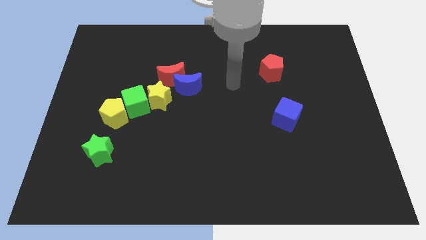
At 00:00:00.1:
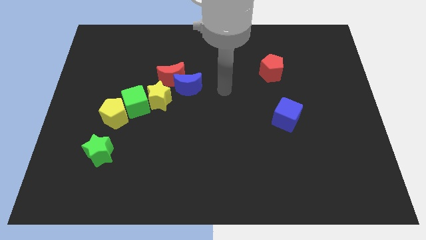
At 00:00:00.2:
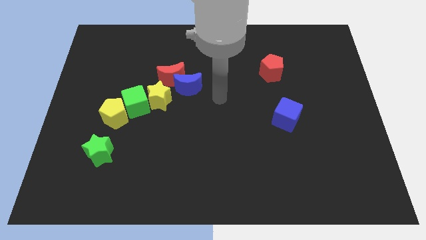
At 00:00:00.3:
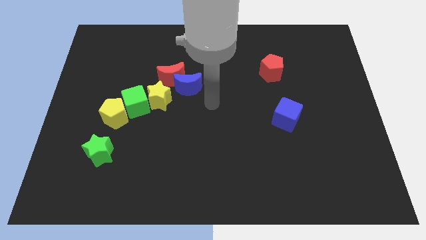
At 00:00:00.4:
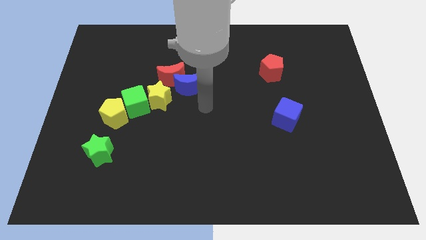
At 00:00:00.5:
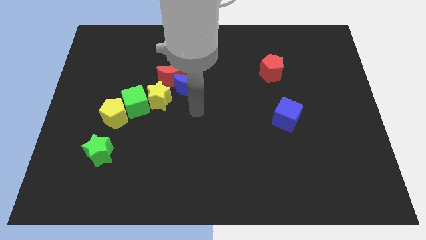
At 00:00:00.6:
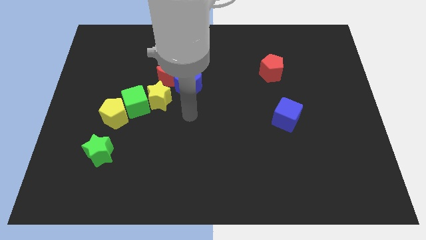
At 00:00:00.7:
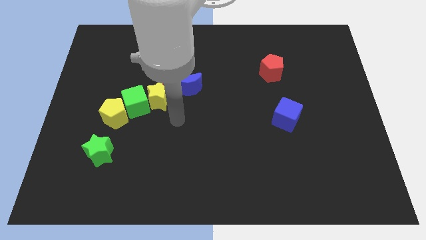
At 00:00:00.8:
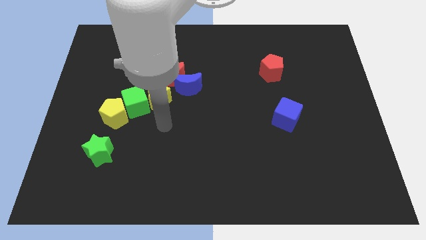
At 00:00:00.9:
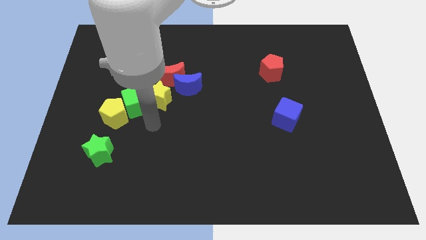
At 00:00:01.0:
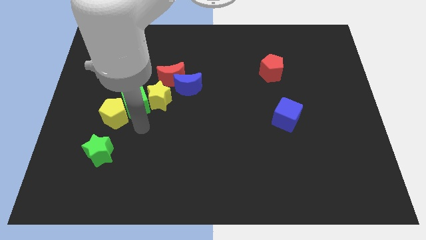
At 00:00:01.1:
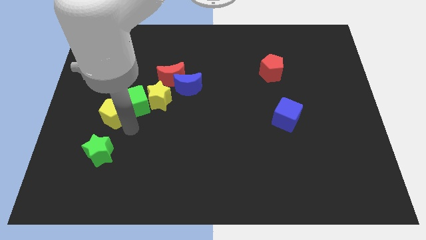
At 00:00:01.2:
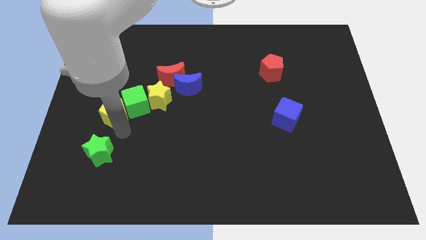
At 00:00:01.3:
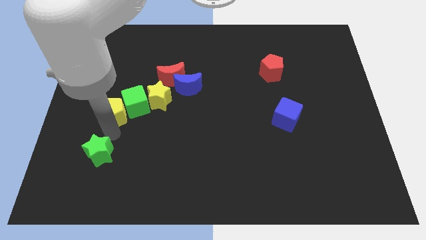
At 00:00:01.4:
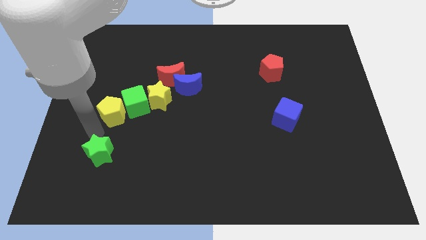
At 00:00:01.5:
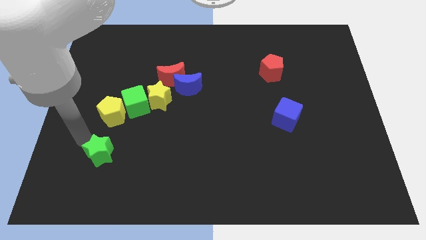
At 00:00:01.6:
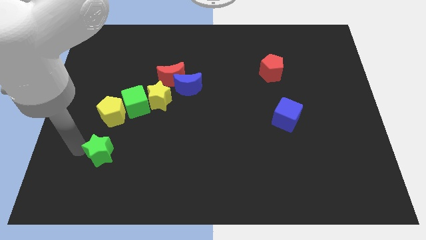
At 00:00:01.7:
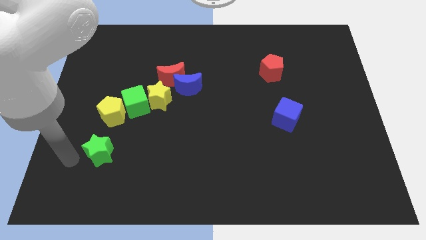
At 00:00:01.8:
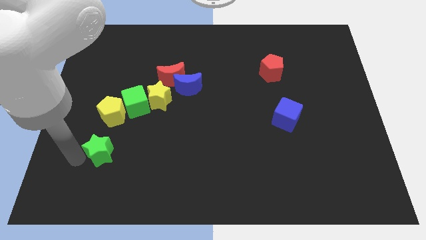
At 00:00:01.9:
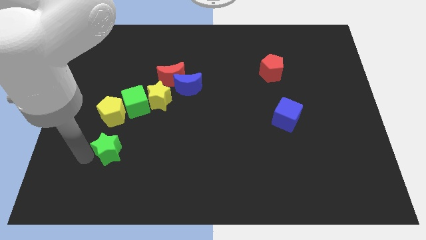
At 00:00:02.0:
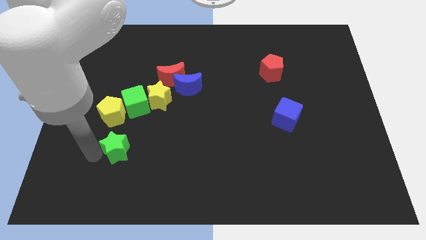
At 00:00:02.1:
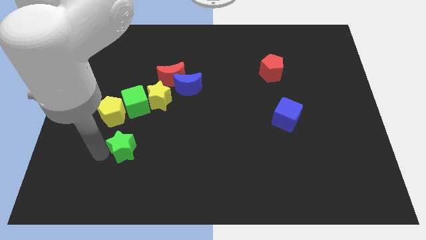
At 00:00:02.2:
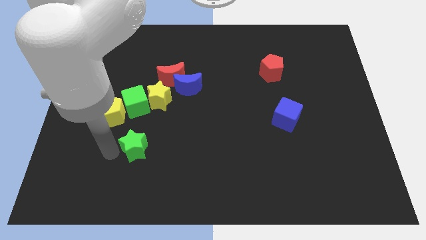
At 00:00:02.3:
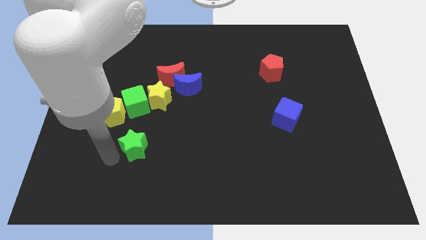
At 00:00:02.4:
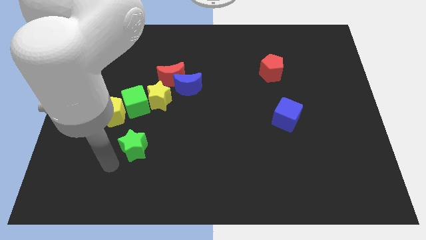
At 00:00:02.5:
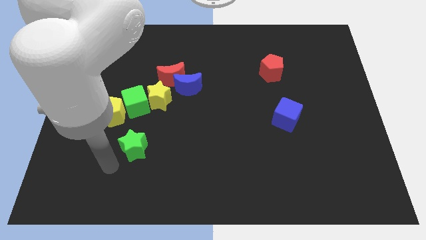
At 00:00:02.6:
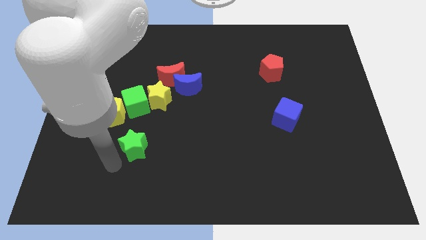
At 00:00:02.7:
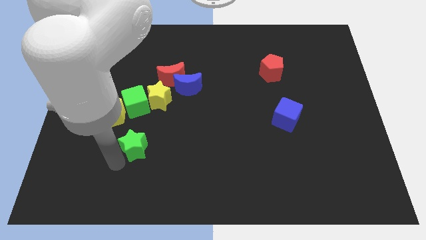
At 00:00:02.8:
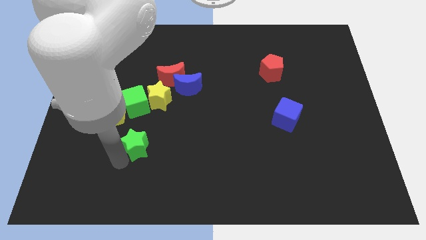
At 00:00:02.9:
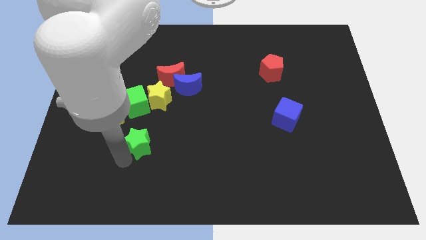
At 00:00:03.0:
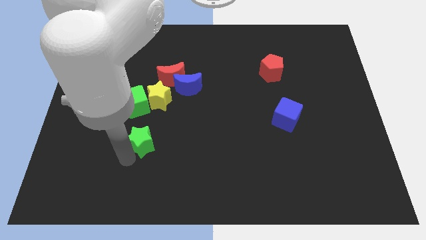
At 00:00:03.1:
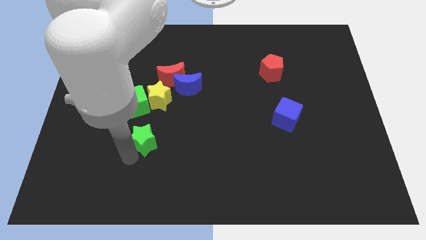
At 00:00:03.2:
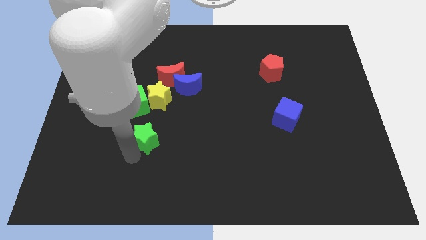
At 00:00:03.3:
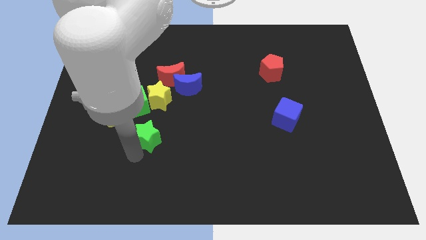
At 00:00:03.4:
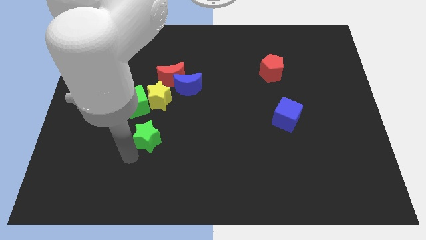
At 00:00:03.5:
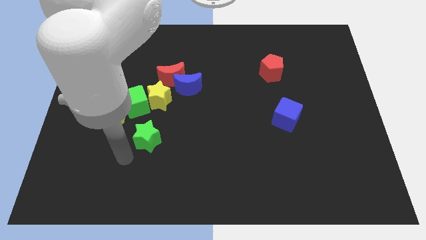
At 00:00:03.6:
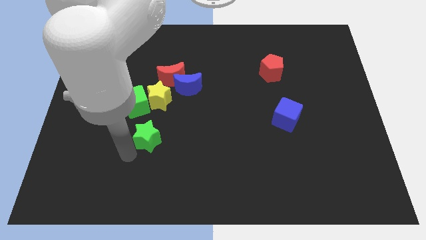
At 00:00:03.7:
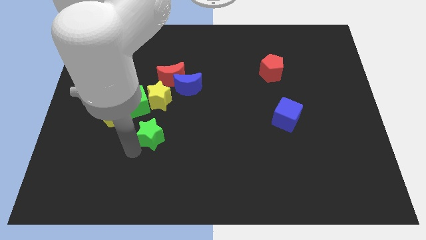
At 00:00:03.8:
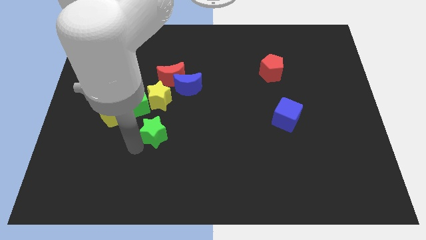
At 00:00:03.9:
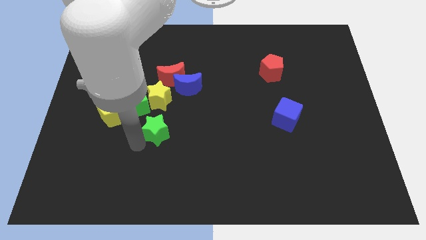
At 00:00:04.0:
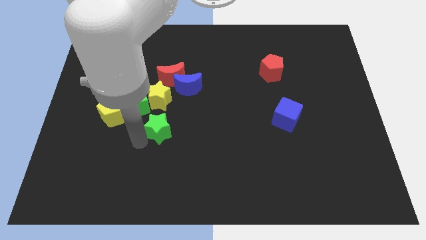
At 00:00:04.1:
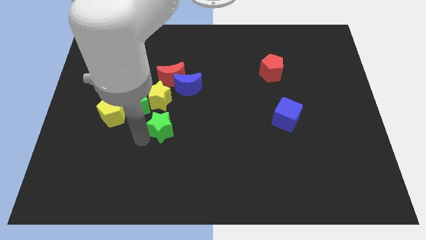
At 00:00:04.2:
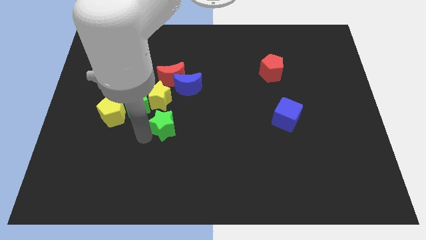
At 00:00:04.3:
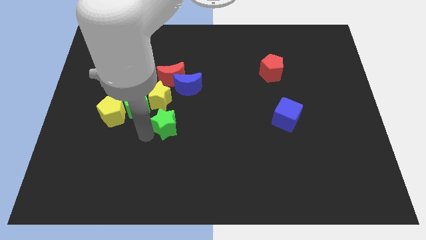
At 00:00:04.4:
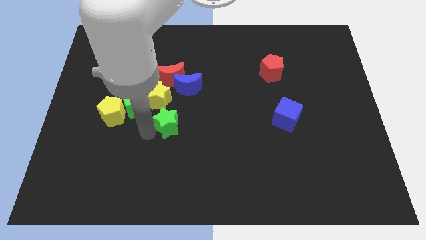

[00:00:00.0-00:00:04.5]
move the green star to the middle

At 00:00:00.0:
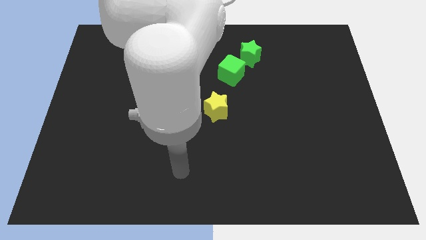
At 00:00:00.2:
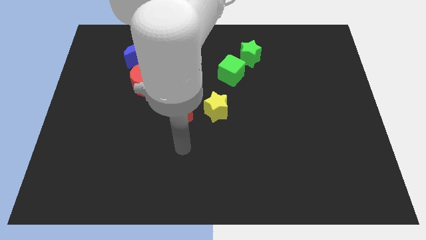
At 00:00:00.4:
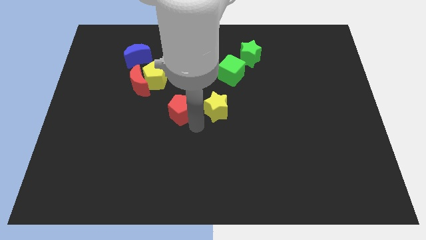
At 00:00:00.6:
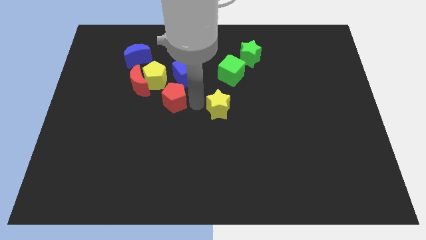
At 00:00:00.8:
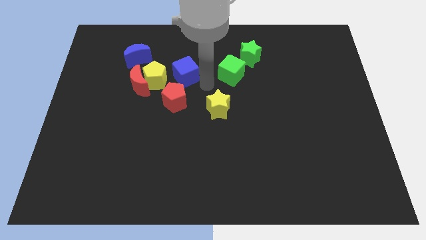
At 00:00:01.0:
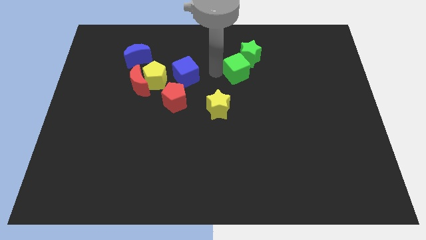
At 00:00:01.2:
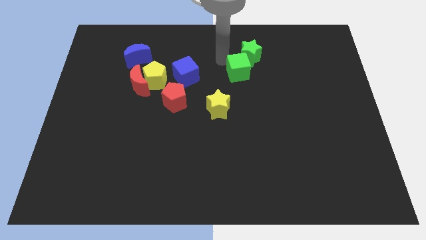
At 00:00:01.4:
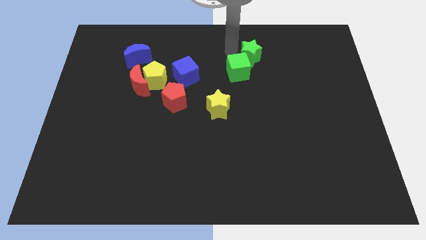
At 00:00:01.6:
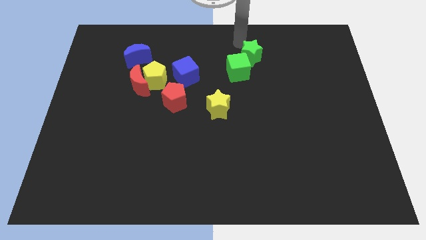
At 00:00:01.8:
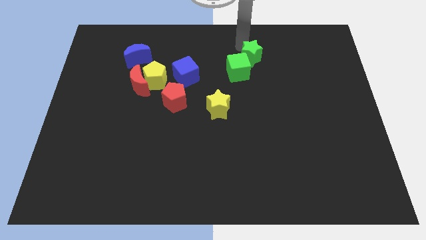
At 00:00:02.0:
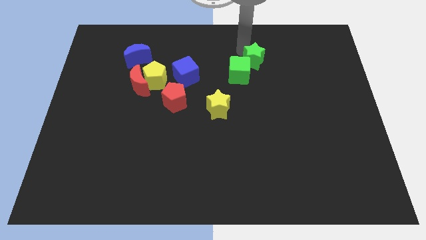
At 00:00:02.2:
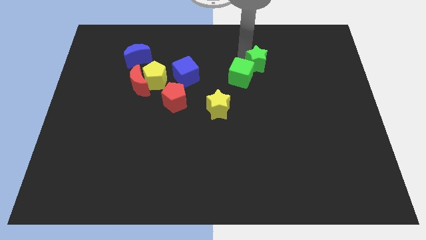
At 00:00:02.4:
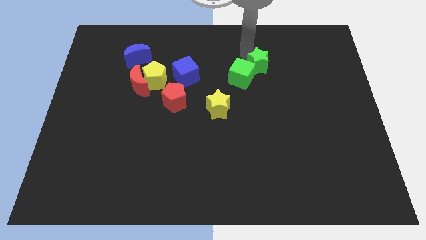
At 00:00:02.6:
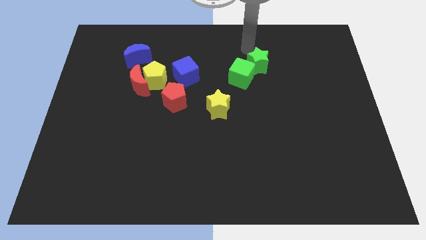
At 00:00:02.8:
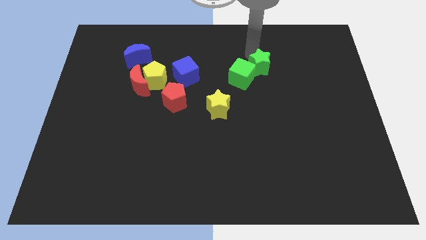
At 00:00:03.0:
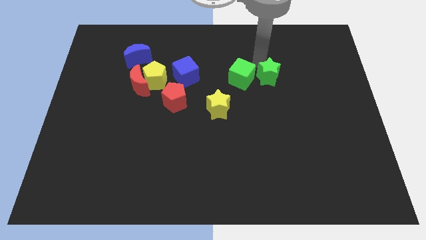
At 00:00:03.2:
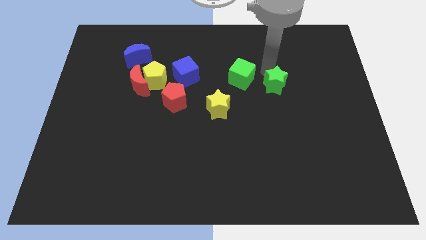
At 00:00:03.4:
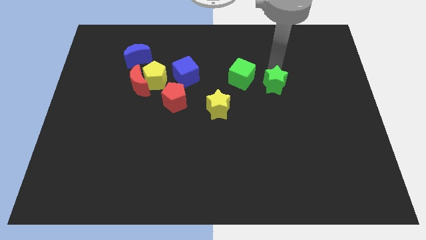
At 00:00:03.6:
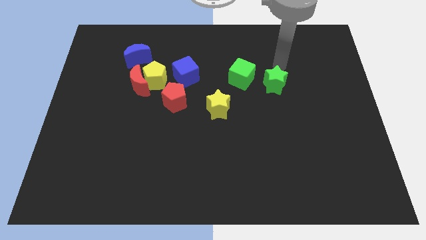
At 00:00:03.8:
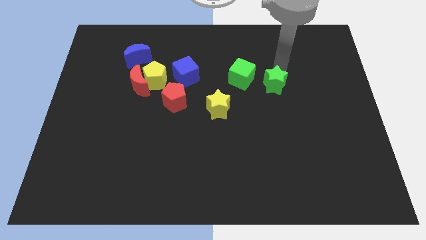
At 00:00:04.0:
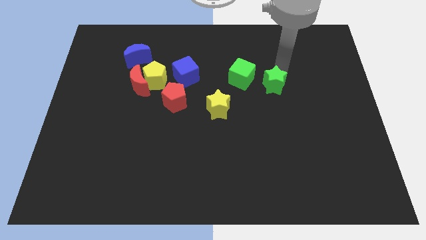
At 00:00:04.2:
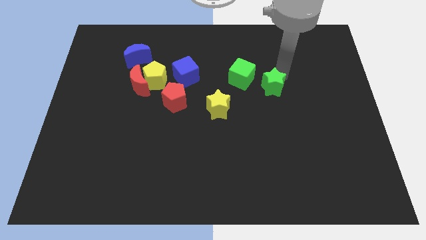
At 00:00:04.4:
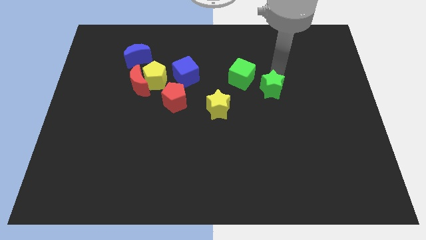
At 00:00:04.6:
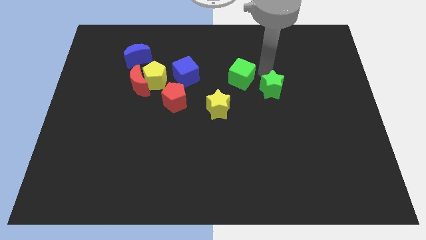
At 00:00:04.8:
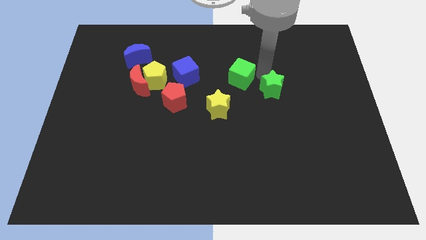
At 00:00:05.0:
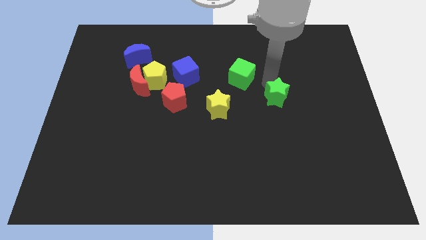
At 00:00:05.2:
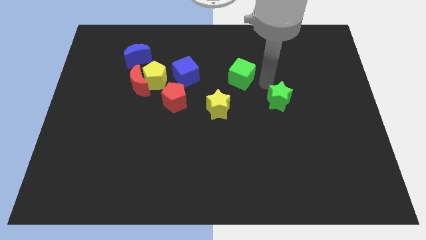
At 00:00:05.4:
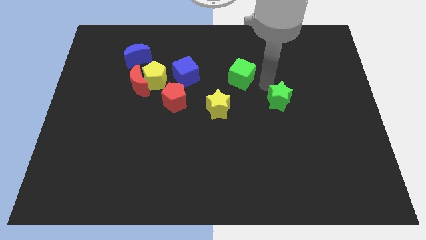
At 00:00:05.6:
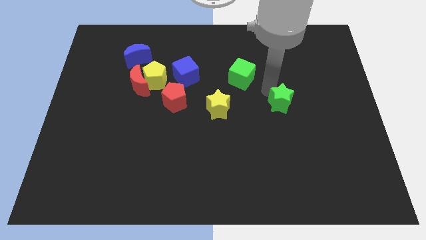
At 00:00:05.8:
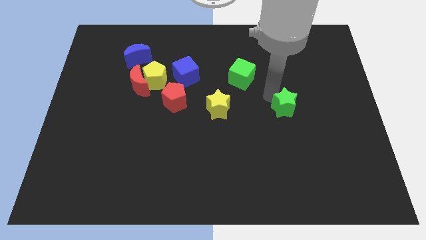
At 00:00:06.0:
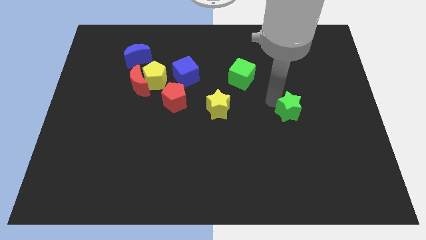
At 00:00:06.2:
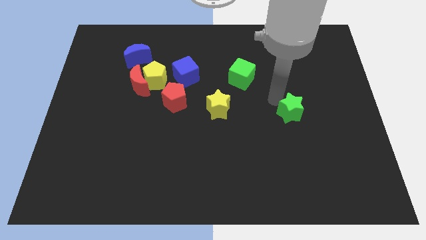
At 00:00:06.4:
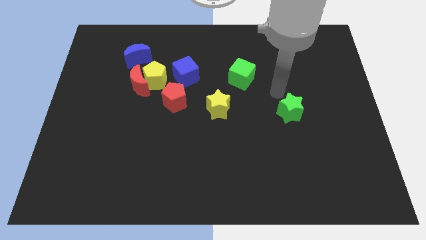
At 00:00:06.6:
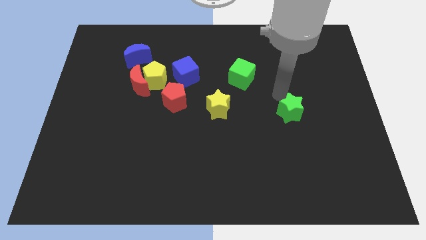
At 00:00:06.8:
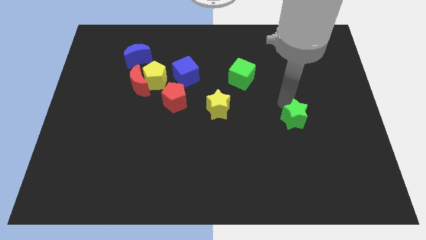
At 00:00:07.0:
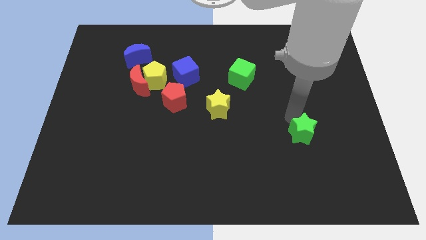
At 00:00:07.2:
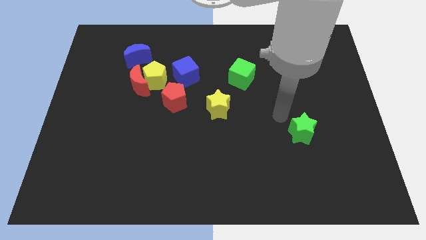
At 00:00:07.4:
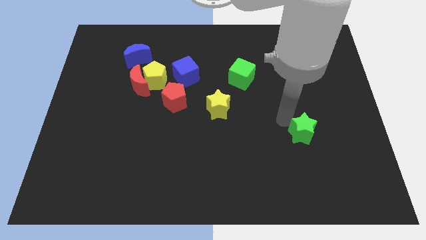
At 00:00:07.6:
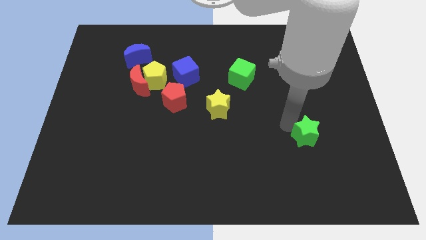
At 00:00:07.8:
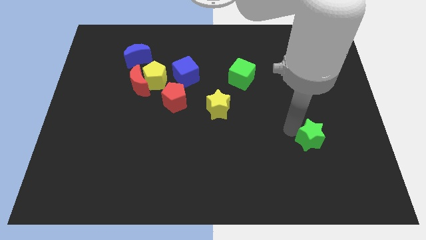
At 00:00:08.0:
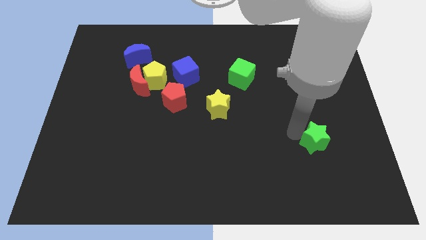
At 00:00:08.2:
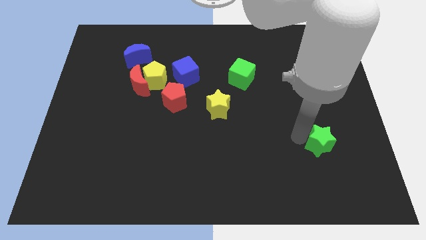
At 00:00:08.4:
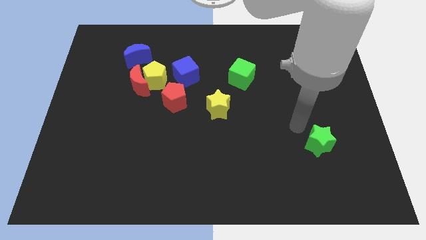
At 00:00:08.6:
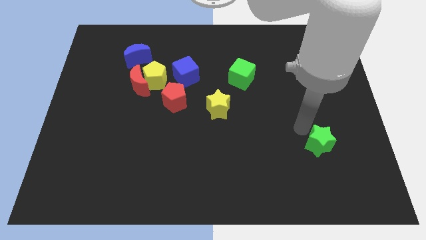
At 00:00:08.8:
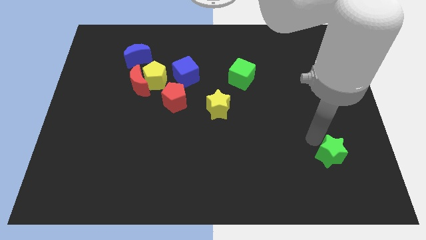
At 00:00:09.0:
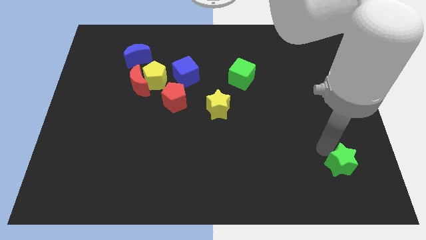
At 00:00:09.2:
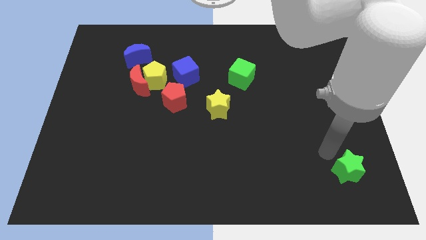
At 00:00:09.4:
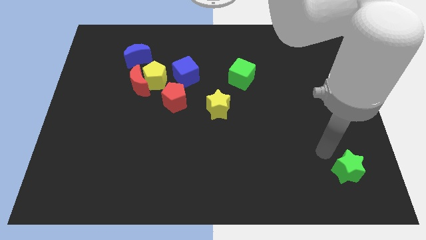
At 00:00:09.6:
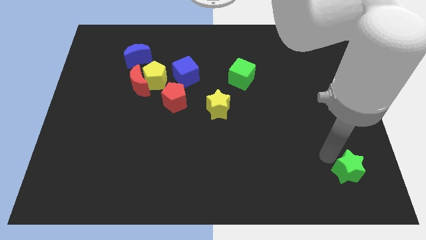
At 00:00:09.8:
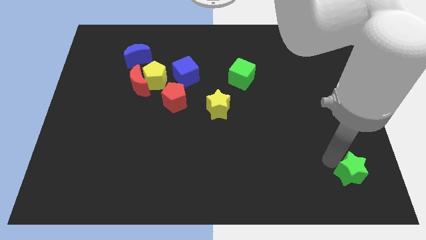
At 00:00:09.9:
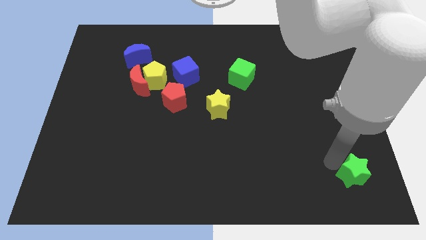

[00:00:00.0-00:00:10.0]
push the green star to the bottom right of the board
